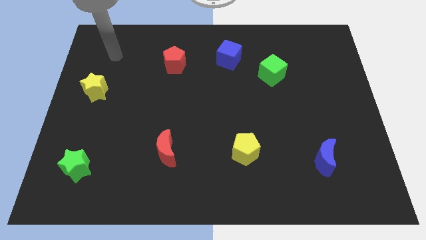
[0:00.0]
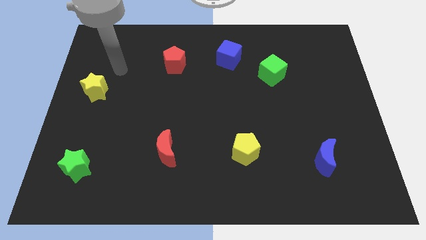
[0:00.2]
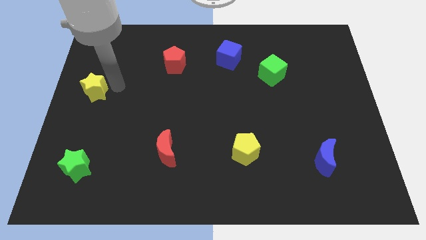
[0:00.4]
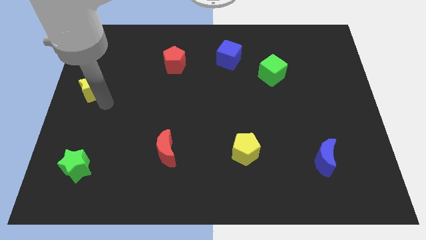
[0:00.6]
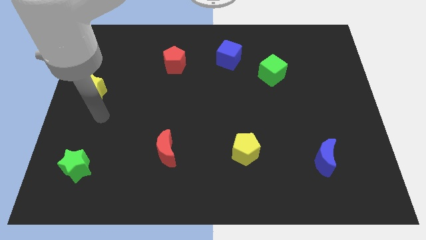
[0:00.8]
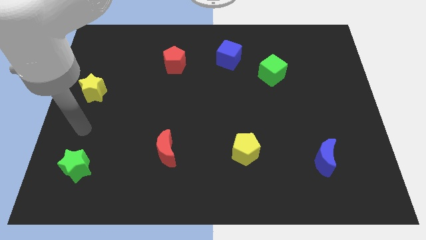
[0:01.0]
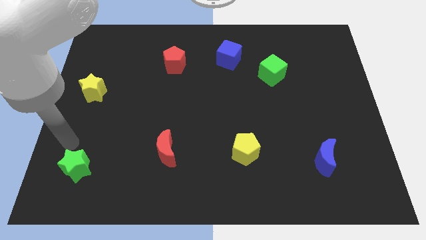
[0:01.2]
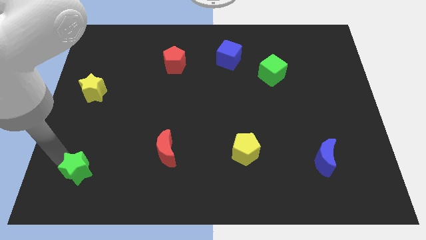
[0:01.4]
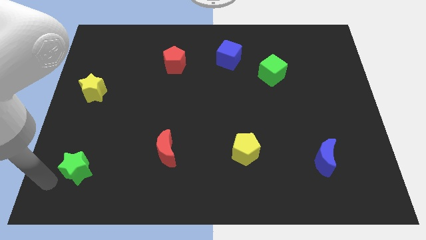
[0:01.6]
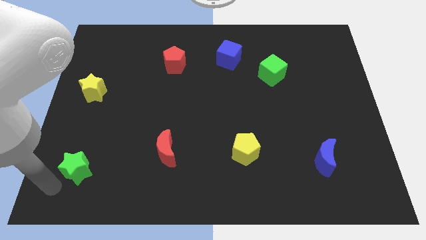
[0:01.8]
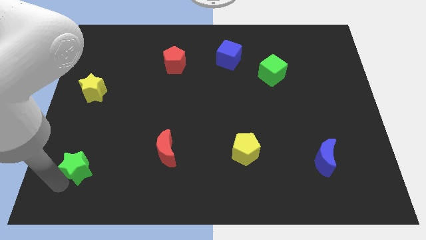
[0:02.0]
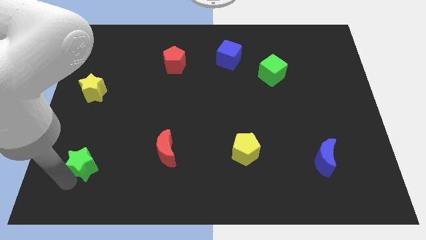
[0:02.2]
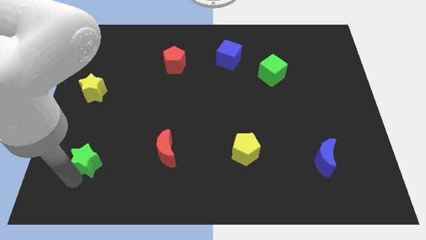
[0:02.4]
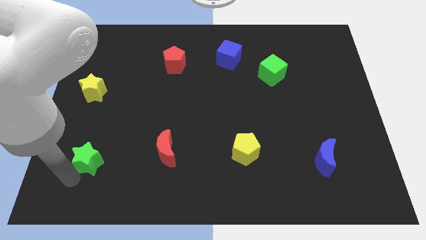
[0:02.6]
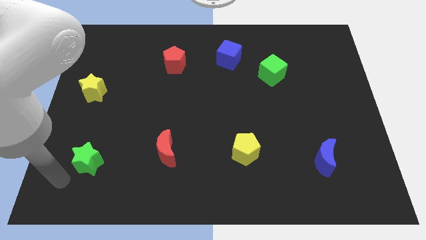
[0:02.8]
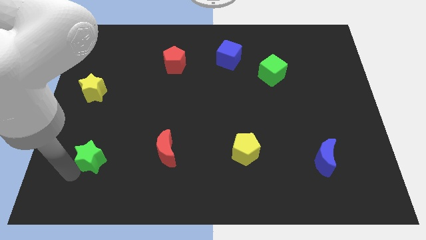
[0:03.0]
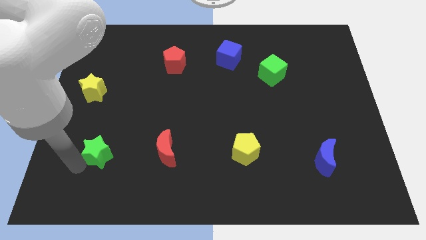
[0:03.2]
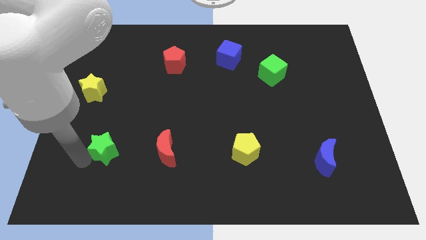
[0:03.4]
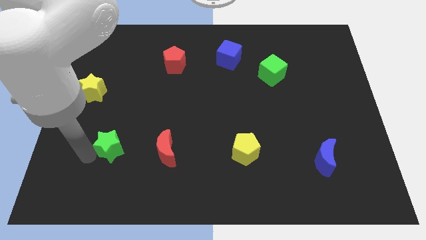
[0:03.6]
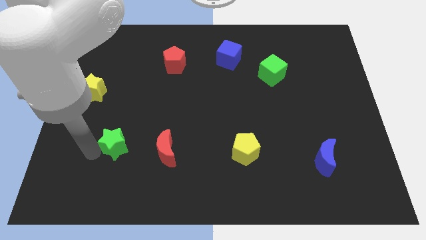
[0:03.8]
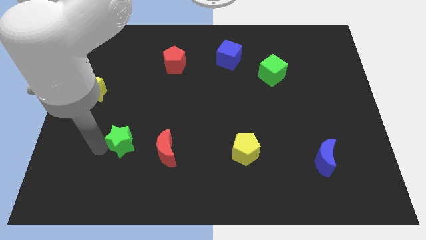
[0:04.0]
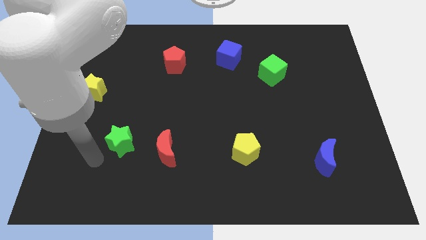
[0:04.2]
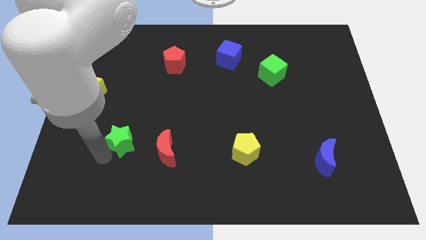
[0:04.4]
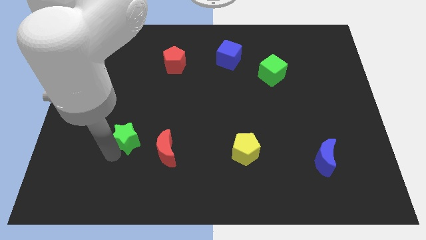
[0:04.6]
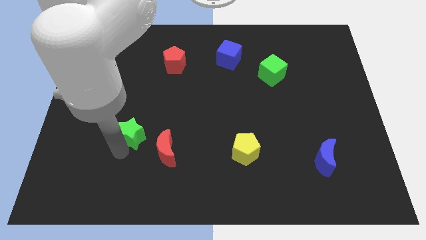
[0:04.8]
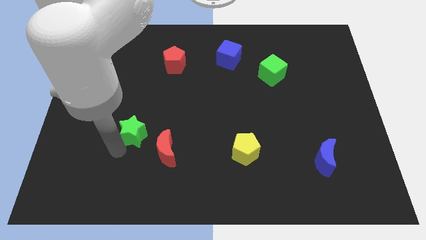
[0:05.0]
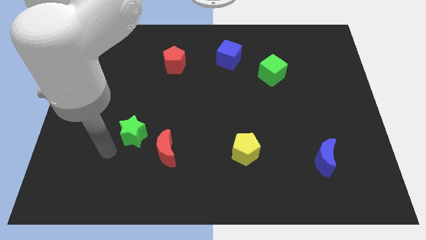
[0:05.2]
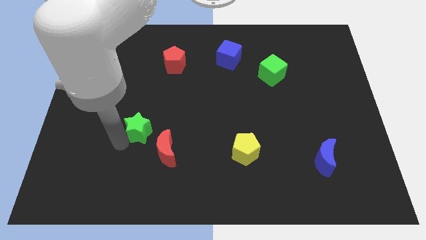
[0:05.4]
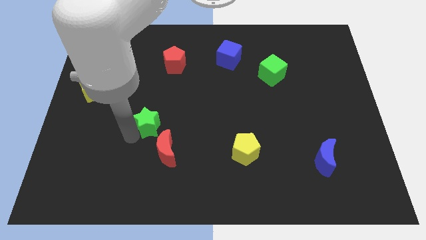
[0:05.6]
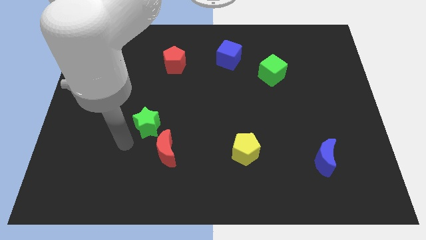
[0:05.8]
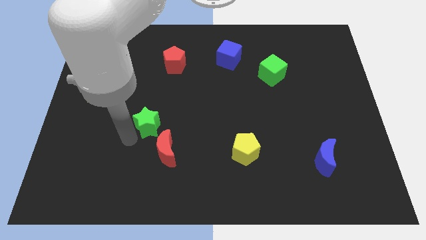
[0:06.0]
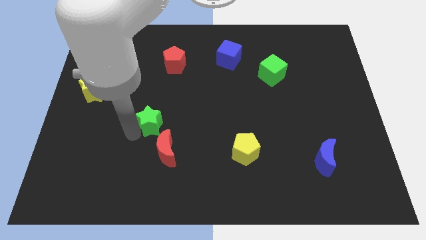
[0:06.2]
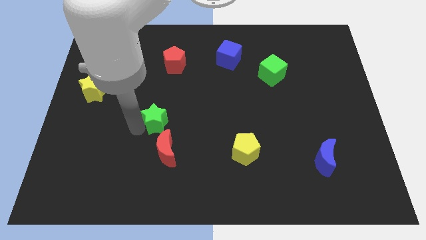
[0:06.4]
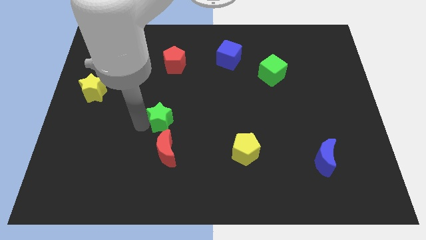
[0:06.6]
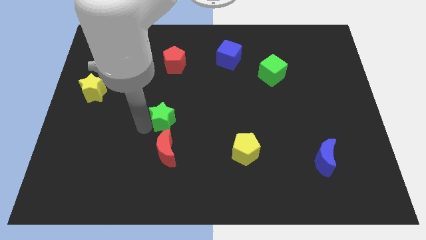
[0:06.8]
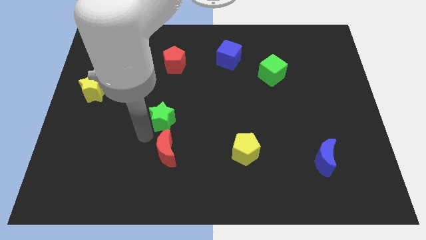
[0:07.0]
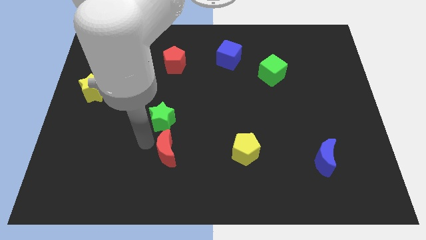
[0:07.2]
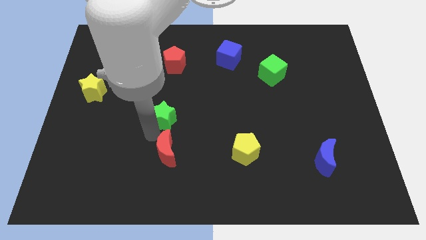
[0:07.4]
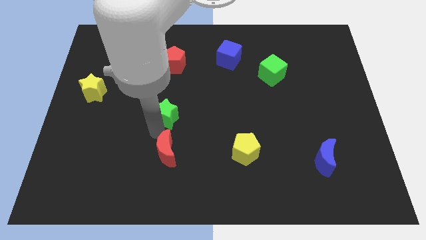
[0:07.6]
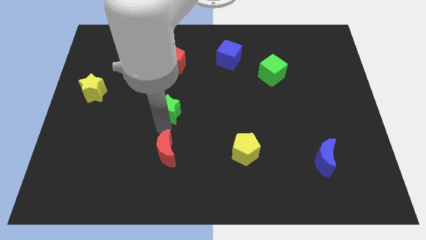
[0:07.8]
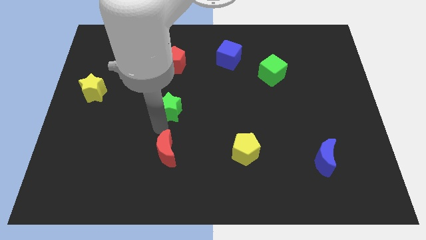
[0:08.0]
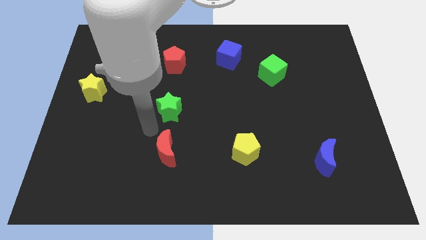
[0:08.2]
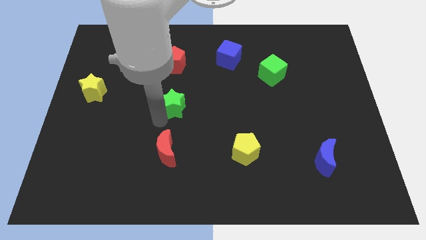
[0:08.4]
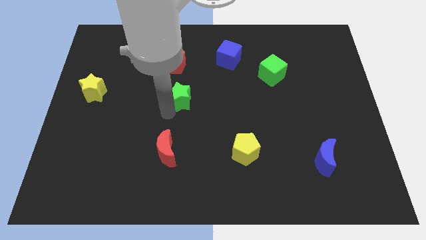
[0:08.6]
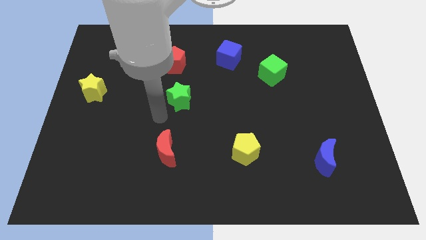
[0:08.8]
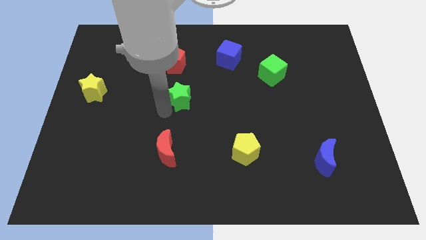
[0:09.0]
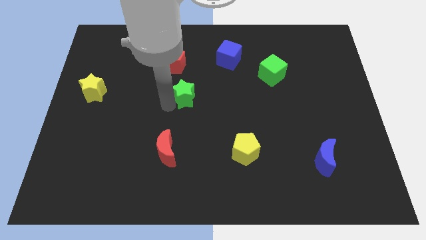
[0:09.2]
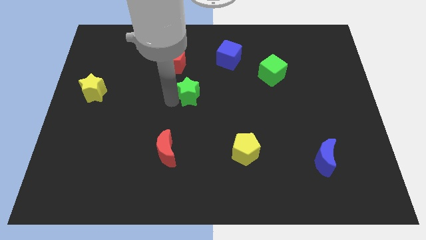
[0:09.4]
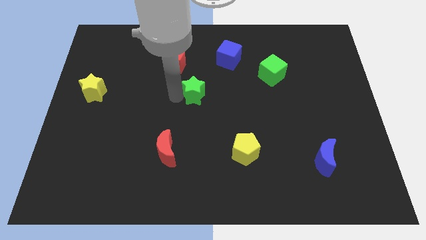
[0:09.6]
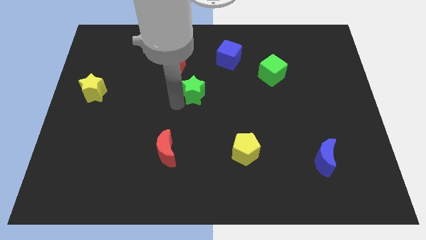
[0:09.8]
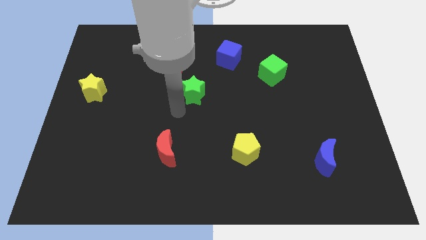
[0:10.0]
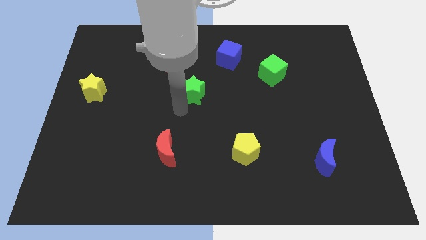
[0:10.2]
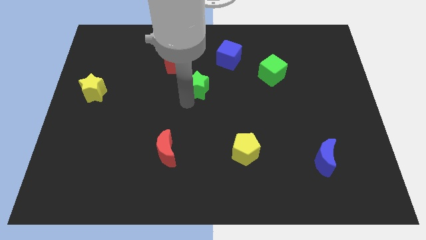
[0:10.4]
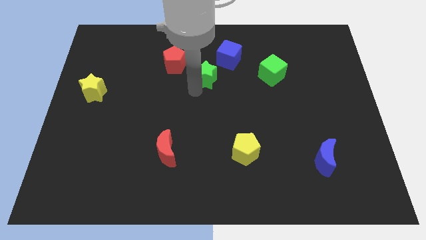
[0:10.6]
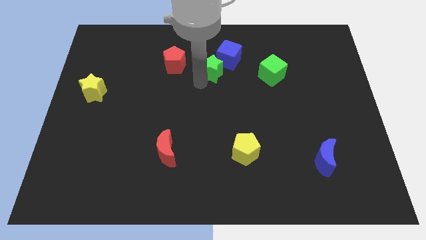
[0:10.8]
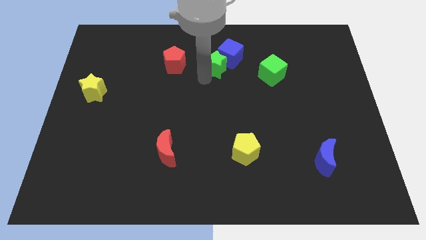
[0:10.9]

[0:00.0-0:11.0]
slide the green star next to the blue cube

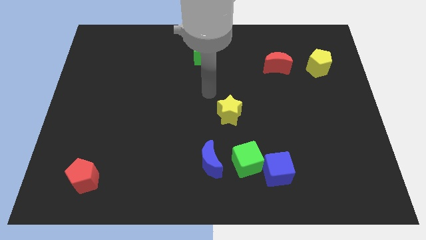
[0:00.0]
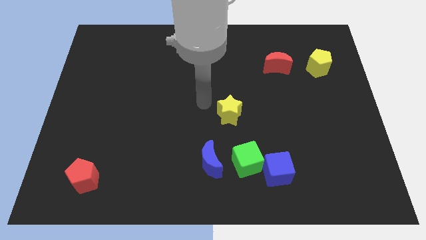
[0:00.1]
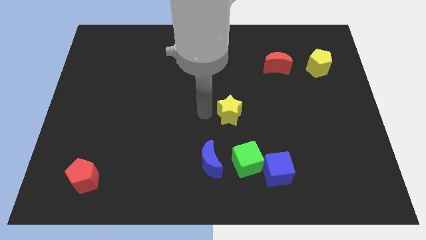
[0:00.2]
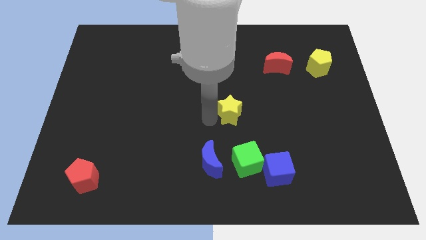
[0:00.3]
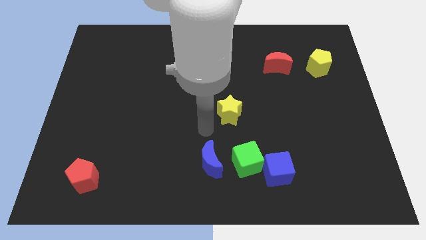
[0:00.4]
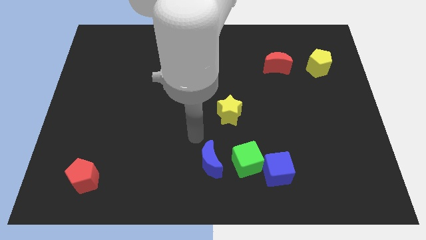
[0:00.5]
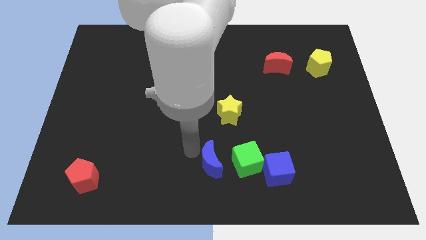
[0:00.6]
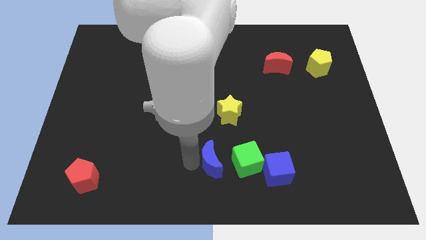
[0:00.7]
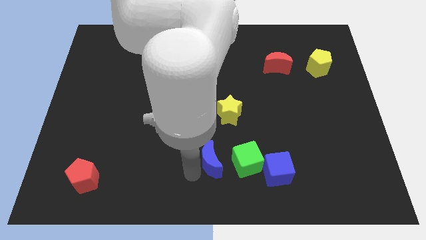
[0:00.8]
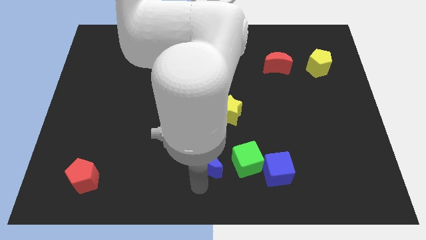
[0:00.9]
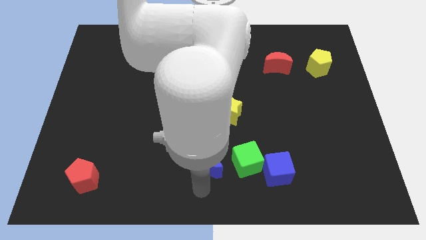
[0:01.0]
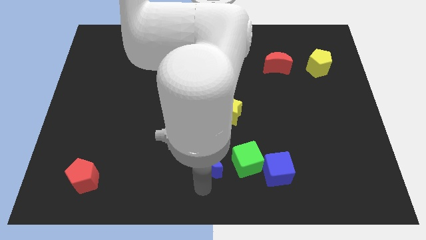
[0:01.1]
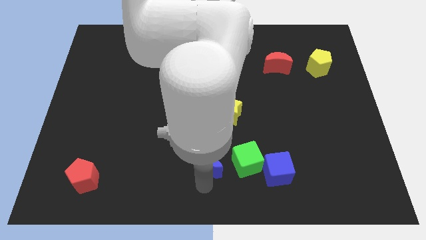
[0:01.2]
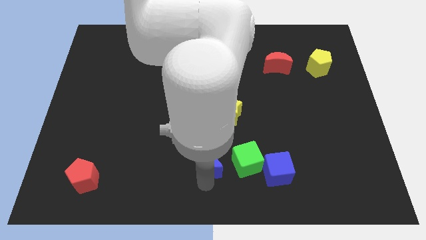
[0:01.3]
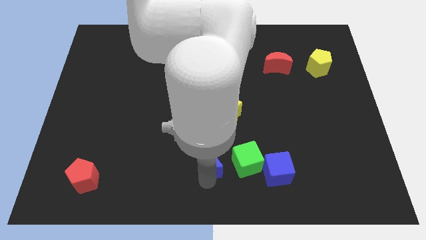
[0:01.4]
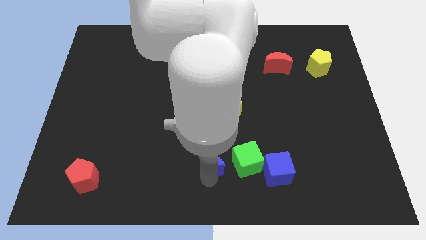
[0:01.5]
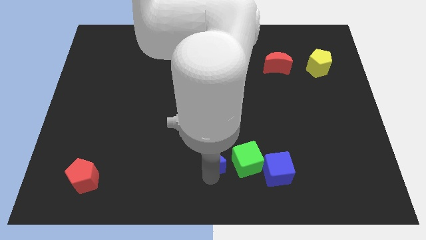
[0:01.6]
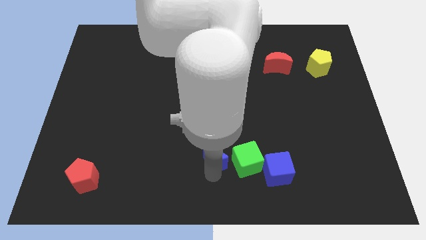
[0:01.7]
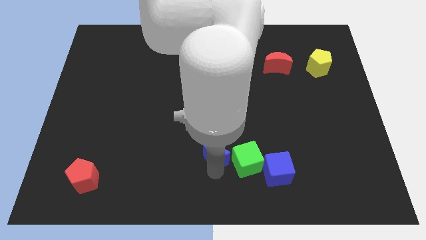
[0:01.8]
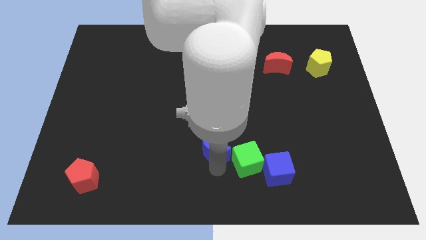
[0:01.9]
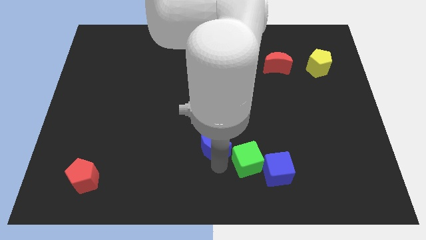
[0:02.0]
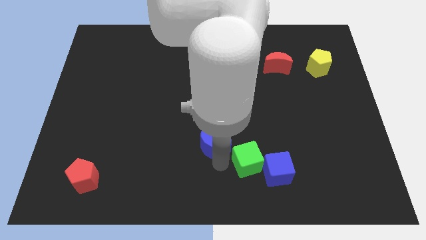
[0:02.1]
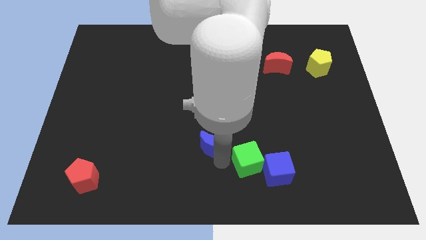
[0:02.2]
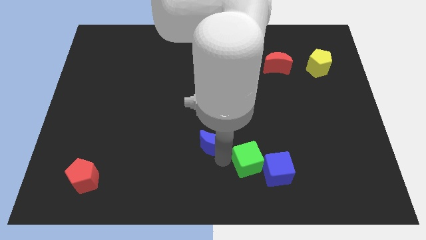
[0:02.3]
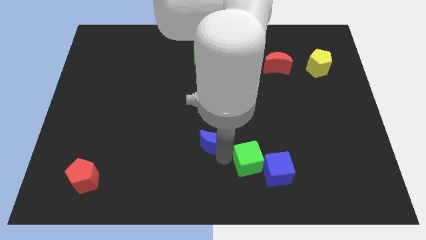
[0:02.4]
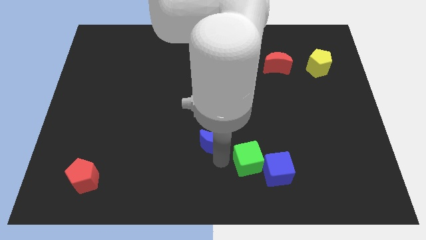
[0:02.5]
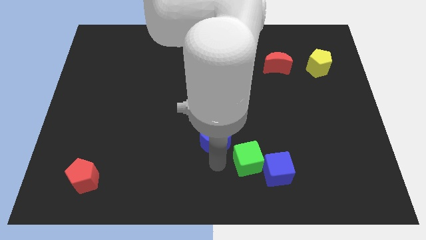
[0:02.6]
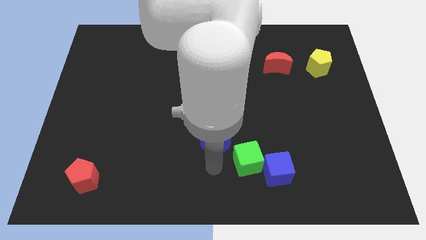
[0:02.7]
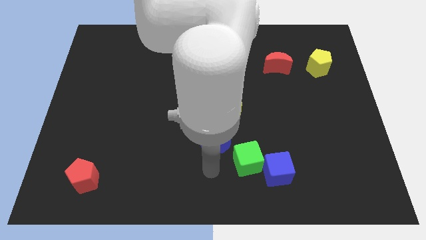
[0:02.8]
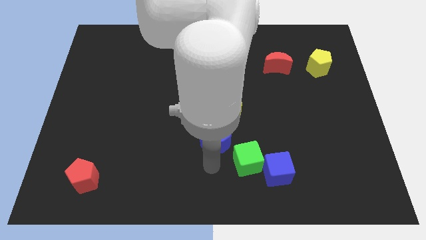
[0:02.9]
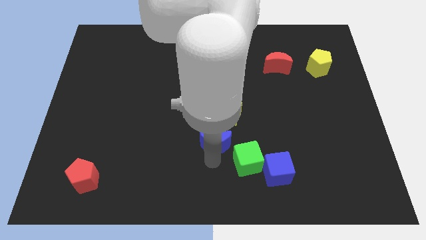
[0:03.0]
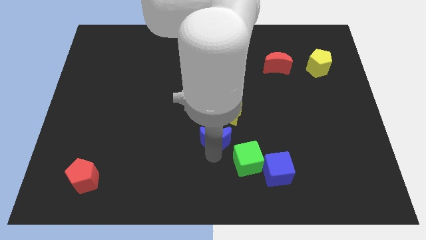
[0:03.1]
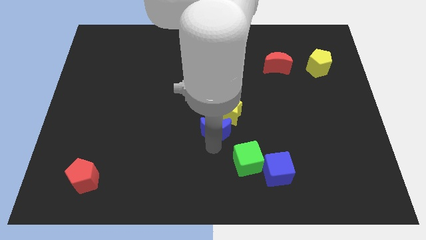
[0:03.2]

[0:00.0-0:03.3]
slide the blue moon close to the yellow star
